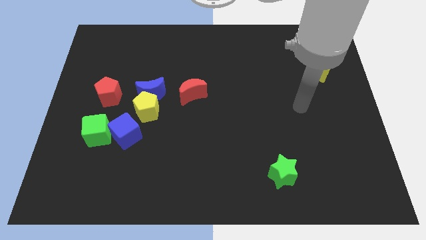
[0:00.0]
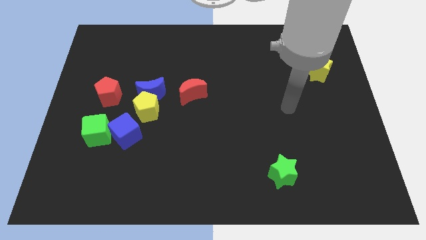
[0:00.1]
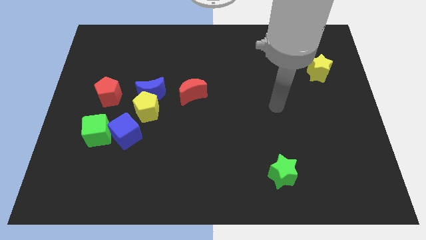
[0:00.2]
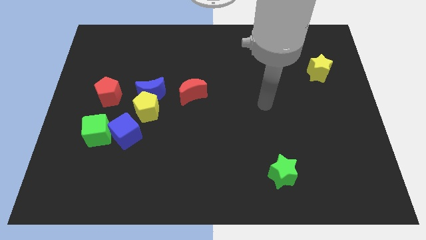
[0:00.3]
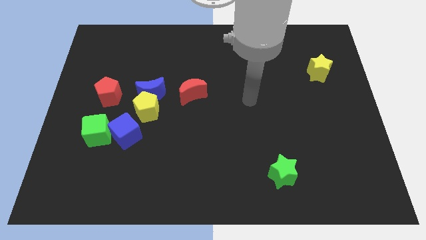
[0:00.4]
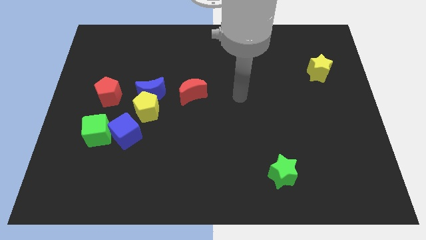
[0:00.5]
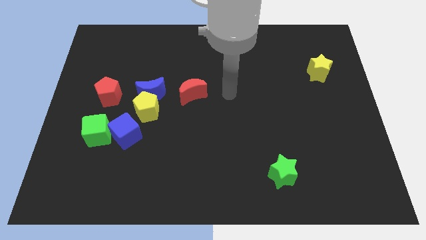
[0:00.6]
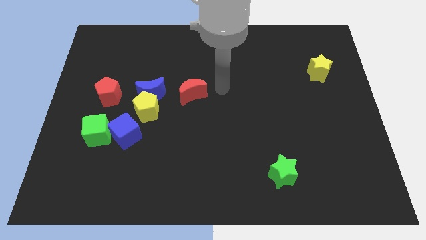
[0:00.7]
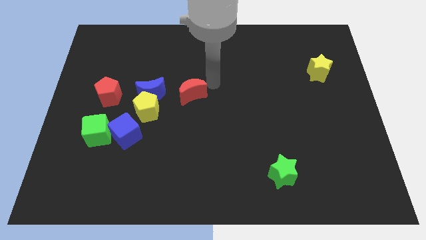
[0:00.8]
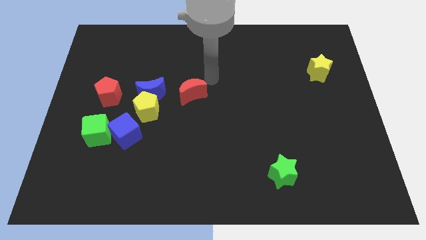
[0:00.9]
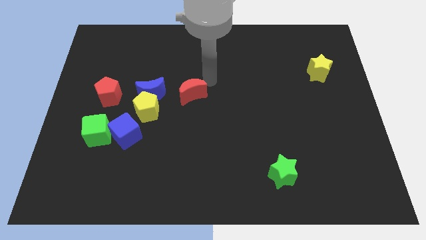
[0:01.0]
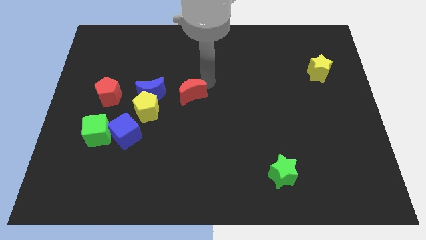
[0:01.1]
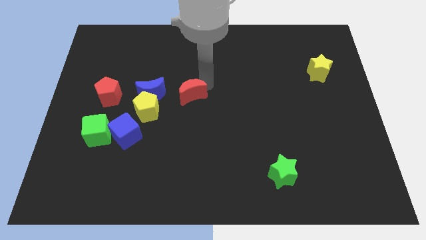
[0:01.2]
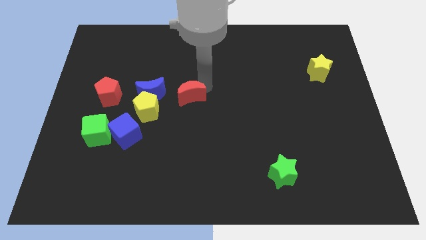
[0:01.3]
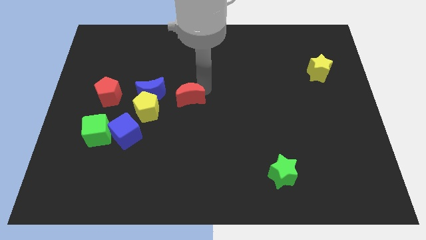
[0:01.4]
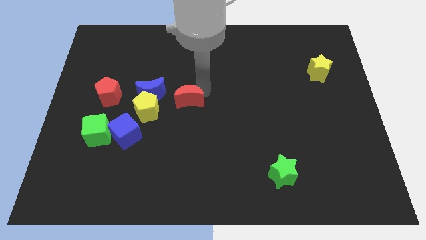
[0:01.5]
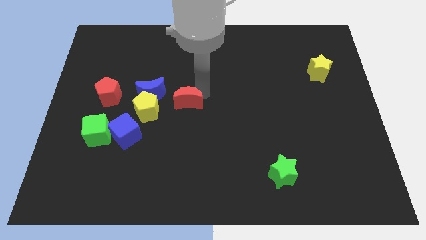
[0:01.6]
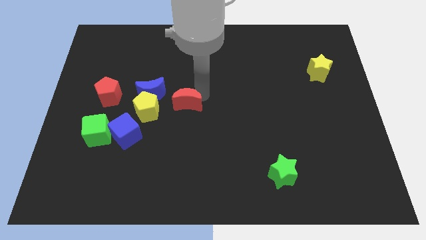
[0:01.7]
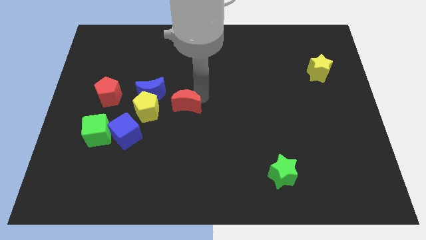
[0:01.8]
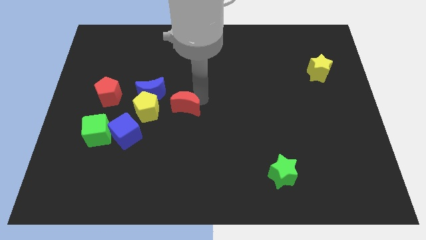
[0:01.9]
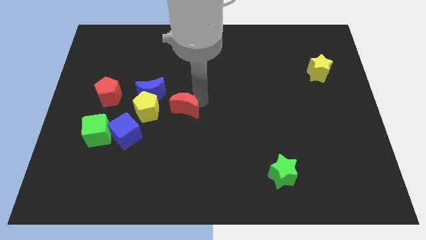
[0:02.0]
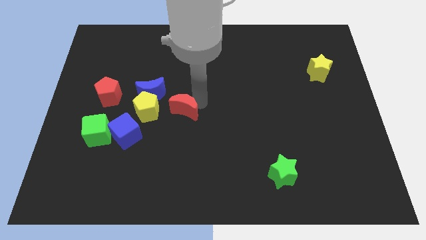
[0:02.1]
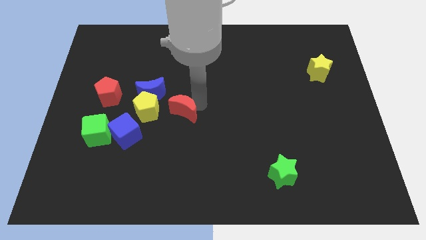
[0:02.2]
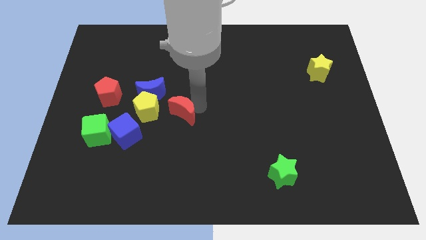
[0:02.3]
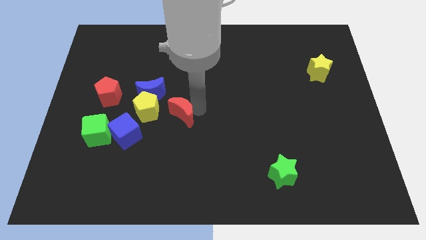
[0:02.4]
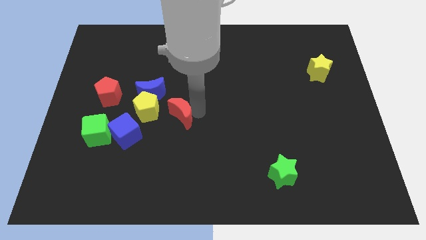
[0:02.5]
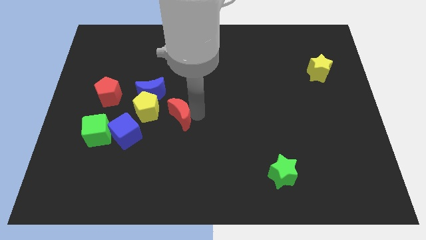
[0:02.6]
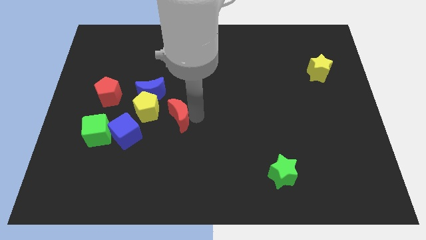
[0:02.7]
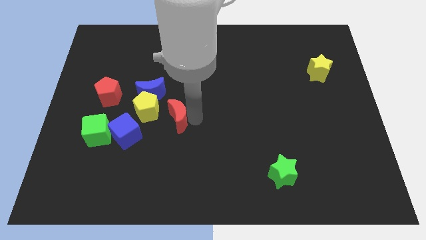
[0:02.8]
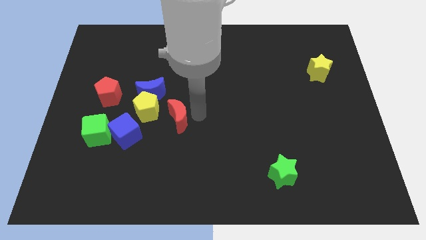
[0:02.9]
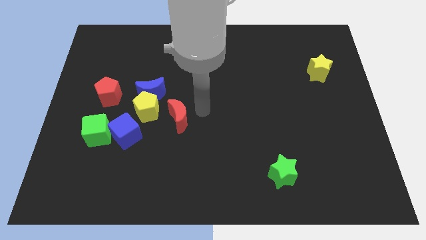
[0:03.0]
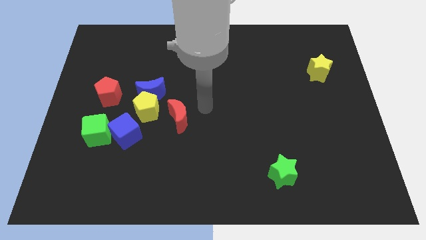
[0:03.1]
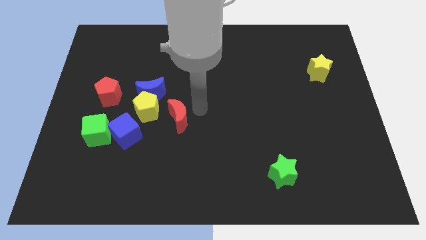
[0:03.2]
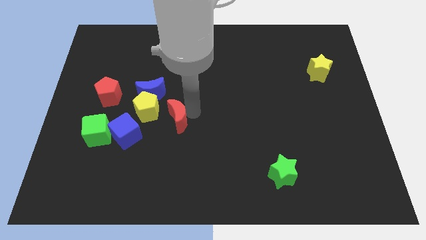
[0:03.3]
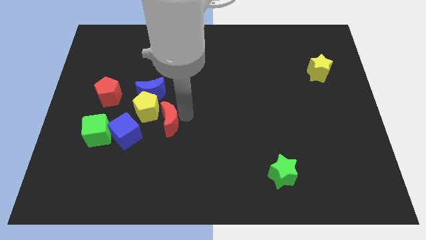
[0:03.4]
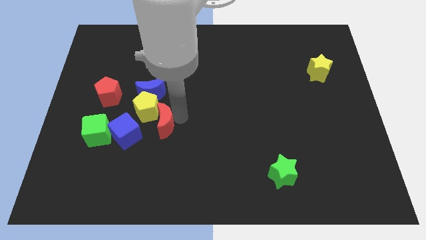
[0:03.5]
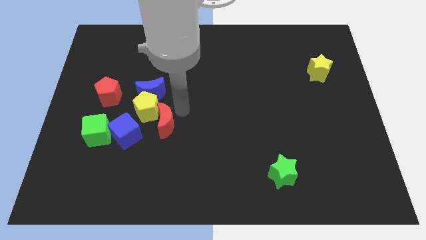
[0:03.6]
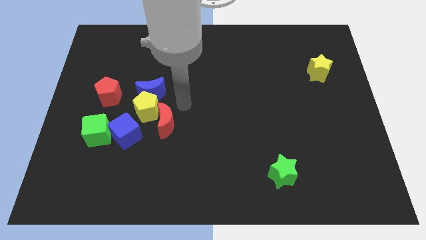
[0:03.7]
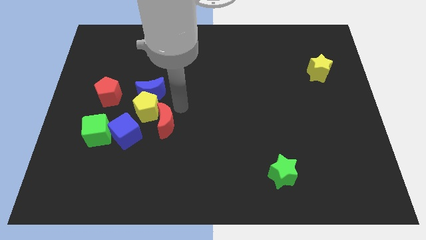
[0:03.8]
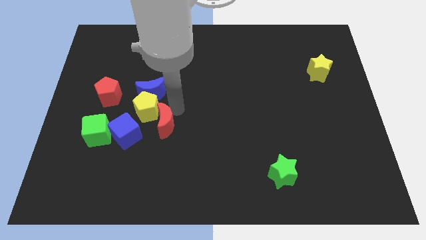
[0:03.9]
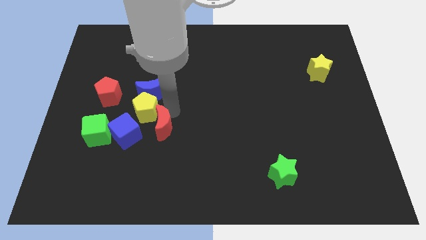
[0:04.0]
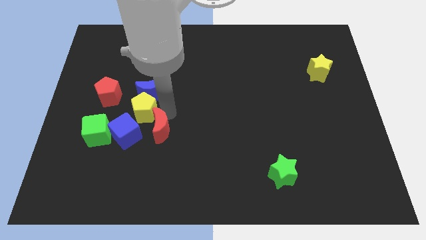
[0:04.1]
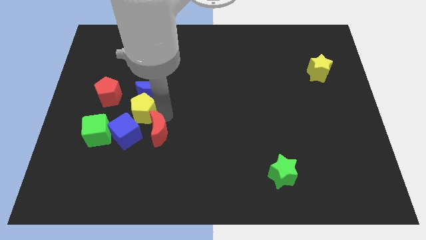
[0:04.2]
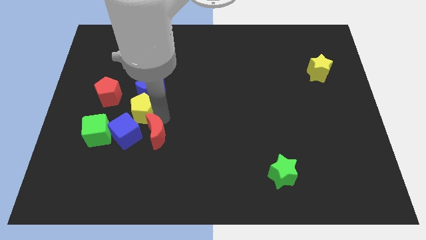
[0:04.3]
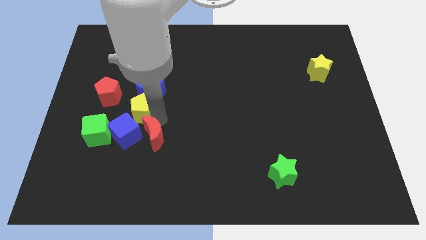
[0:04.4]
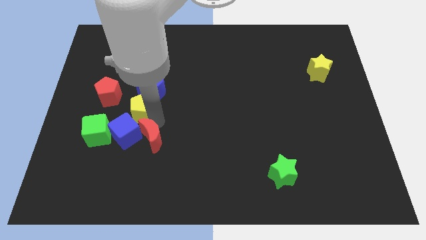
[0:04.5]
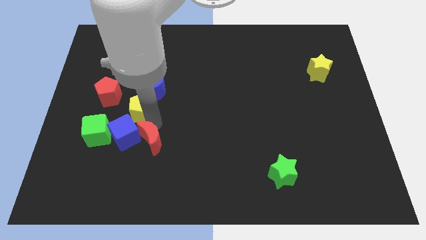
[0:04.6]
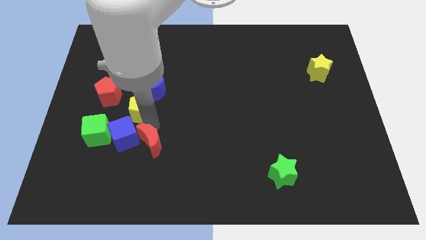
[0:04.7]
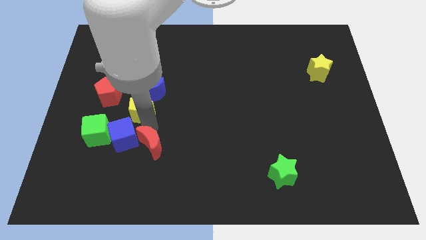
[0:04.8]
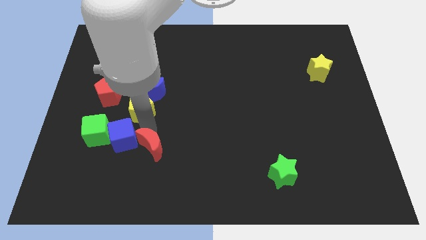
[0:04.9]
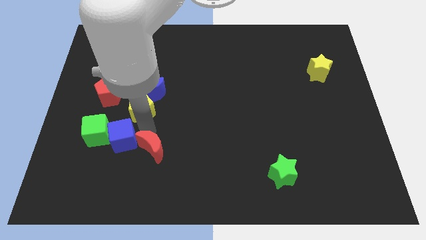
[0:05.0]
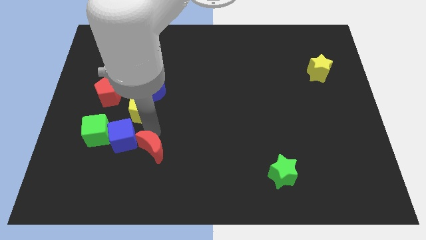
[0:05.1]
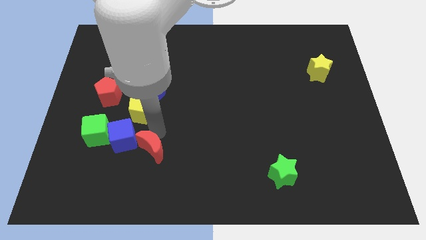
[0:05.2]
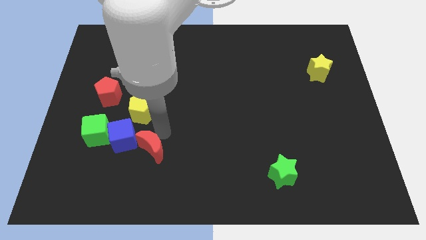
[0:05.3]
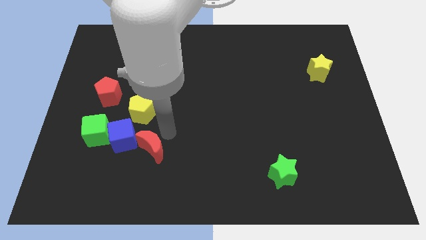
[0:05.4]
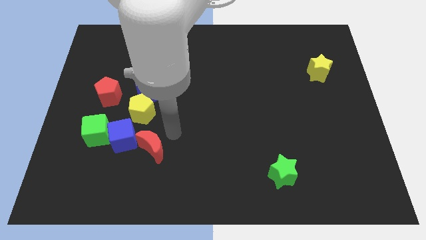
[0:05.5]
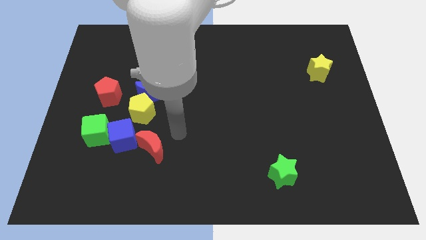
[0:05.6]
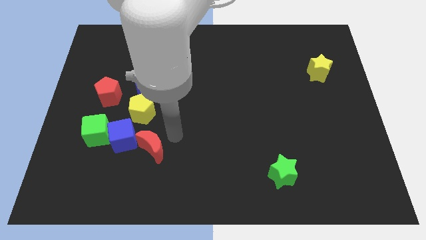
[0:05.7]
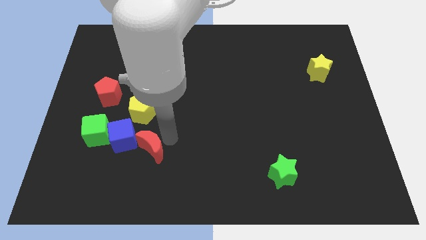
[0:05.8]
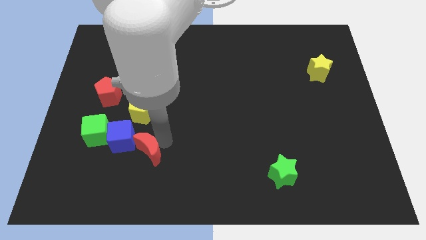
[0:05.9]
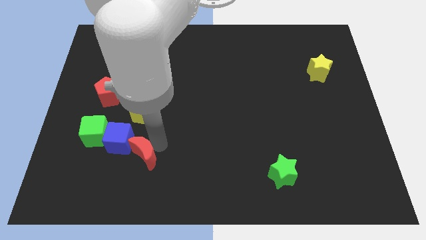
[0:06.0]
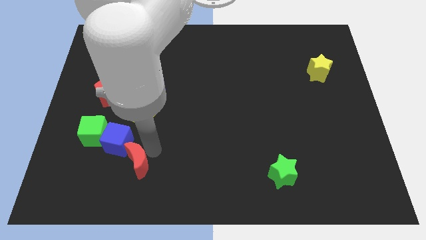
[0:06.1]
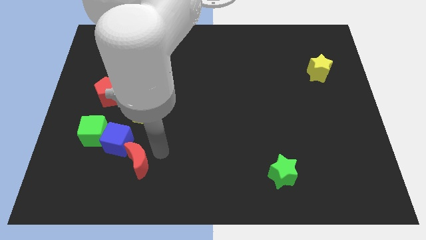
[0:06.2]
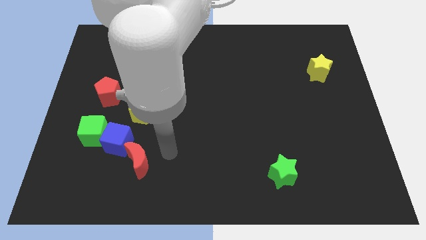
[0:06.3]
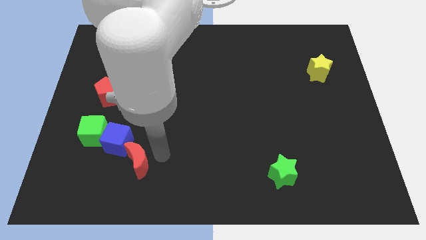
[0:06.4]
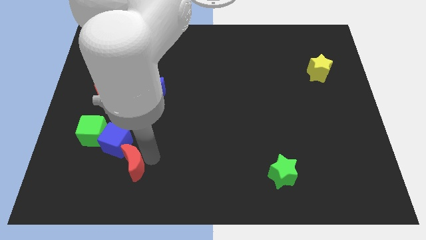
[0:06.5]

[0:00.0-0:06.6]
move the red moon down and left

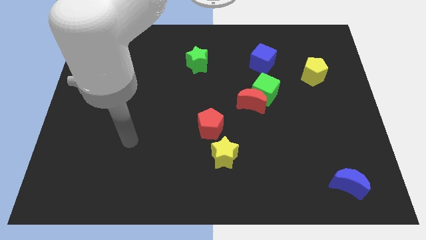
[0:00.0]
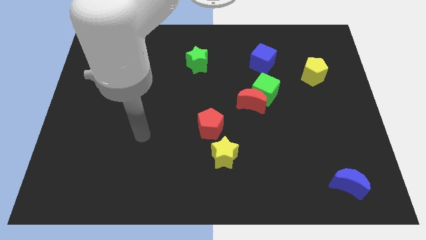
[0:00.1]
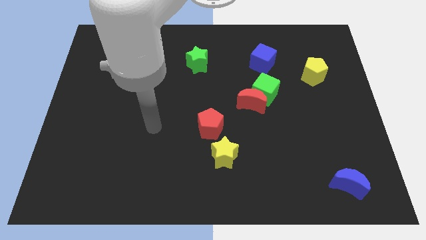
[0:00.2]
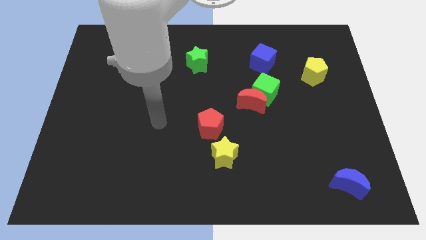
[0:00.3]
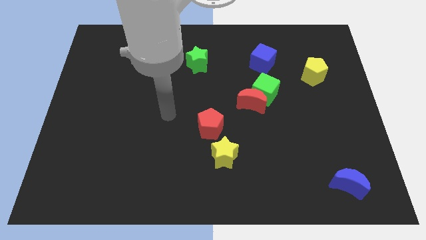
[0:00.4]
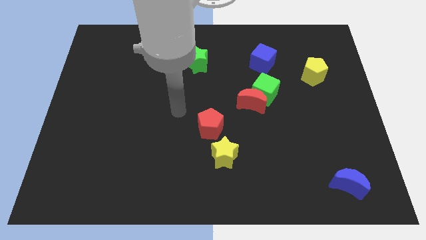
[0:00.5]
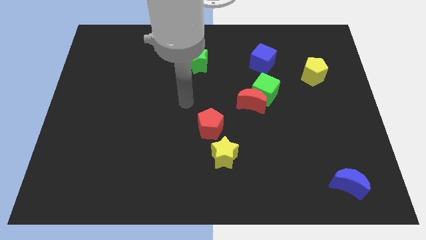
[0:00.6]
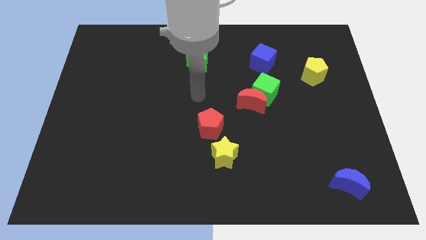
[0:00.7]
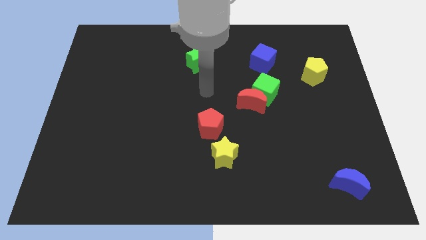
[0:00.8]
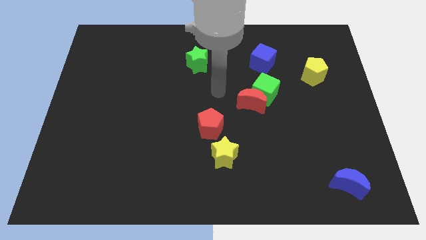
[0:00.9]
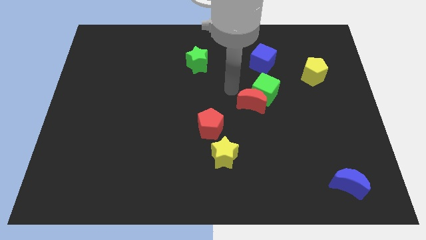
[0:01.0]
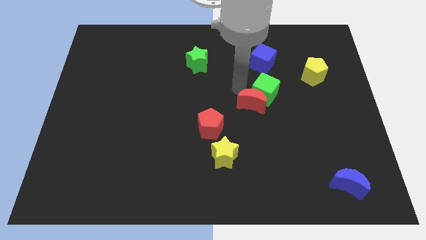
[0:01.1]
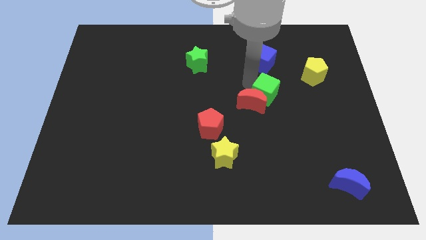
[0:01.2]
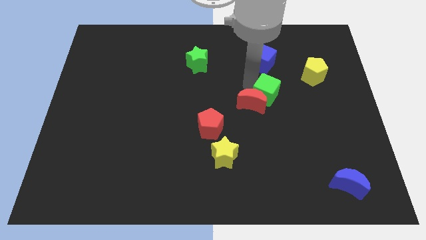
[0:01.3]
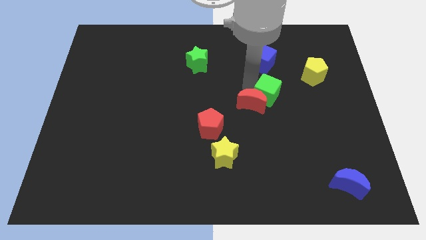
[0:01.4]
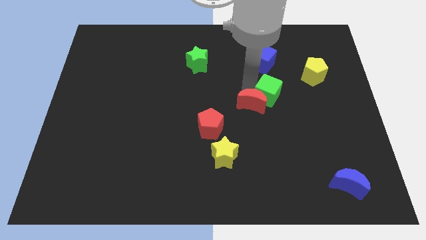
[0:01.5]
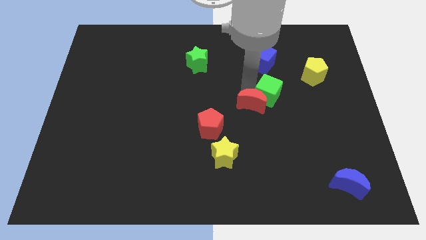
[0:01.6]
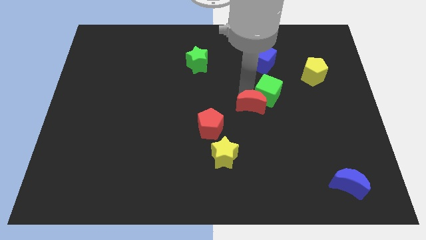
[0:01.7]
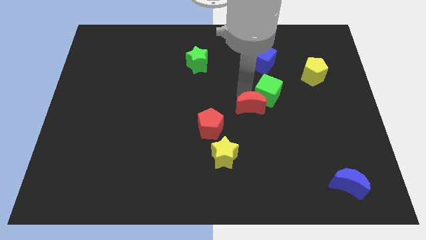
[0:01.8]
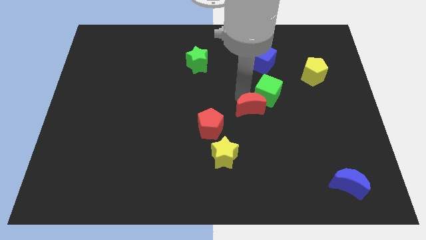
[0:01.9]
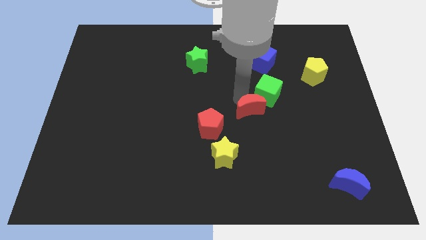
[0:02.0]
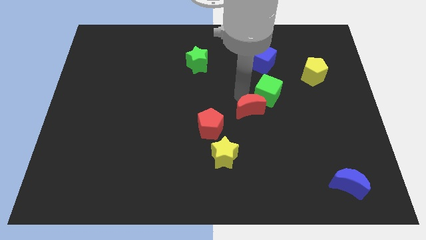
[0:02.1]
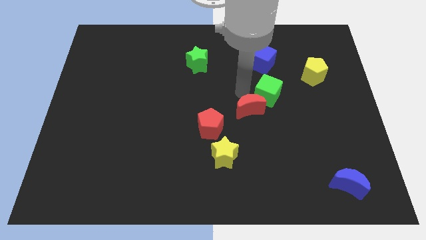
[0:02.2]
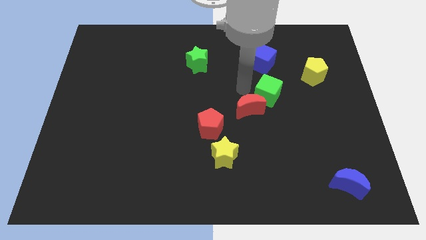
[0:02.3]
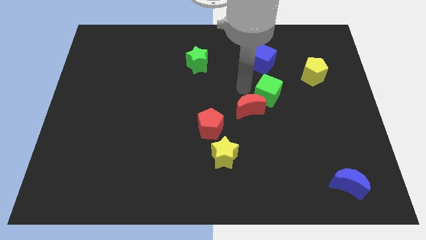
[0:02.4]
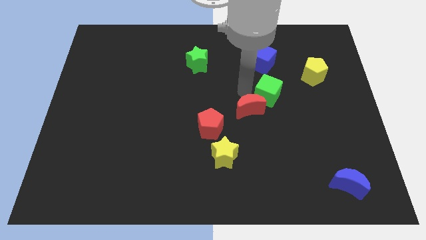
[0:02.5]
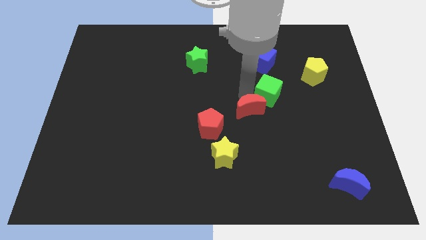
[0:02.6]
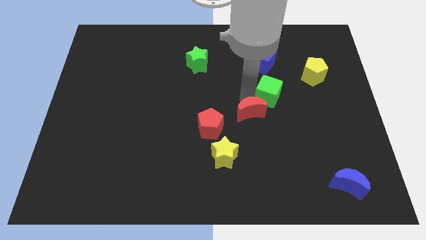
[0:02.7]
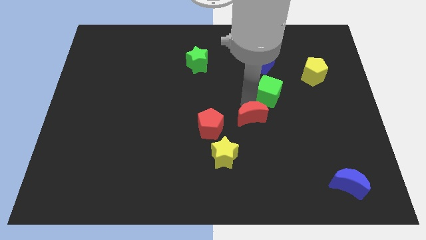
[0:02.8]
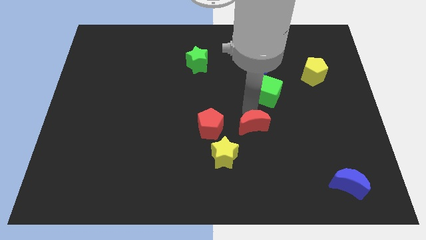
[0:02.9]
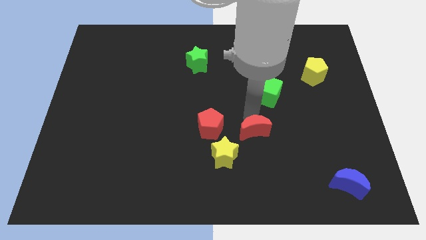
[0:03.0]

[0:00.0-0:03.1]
push the red moon down a bit
